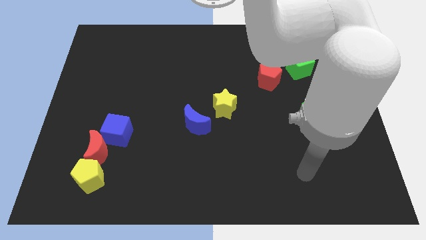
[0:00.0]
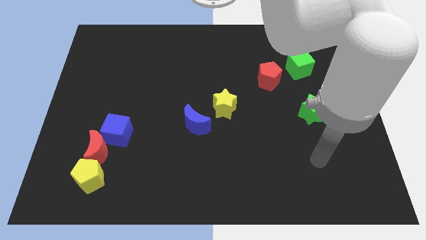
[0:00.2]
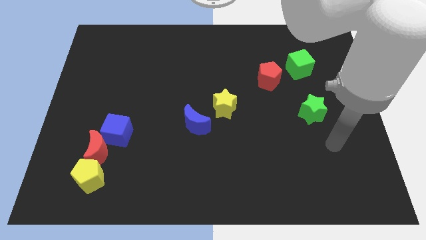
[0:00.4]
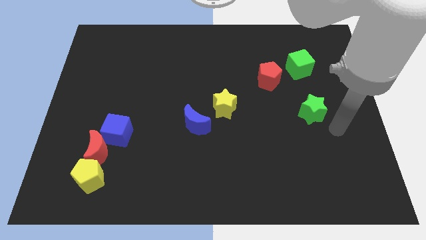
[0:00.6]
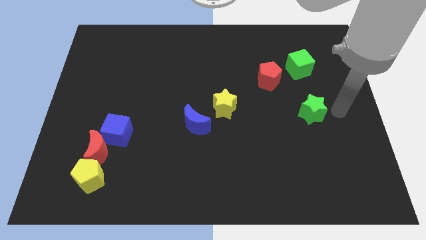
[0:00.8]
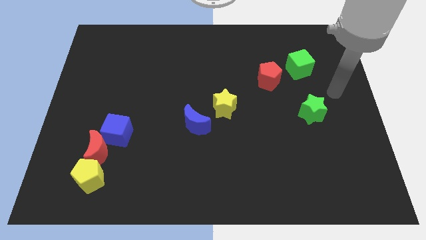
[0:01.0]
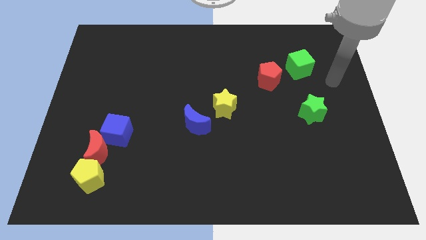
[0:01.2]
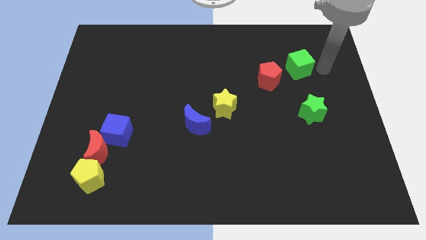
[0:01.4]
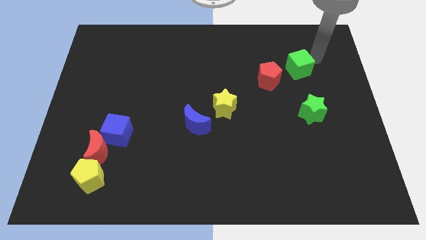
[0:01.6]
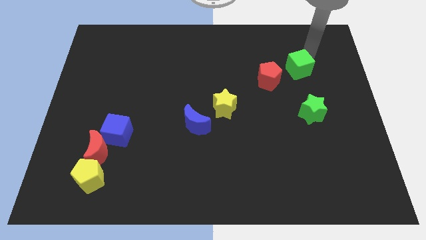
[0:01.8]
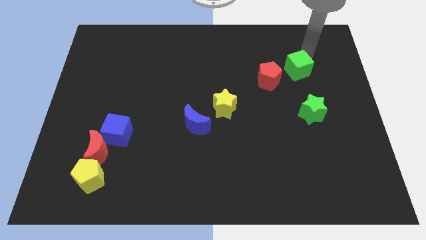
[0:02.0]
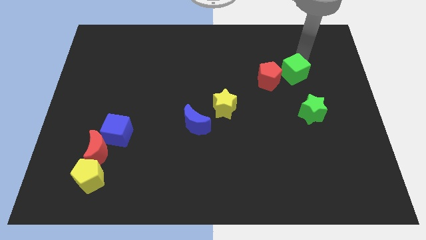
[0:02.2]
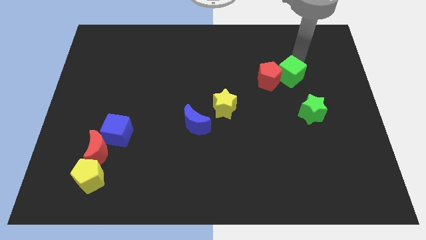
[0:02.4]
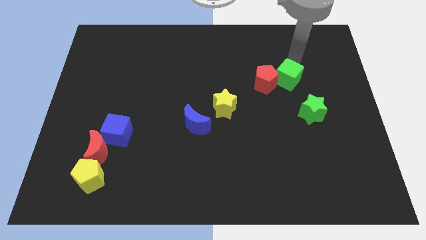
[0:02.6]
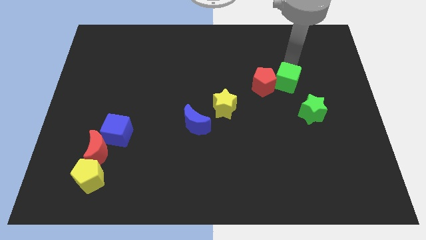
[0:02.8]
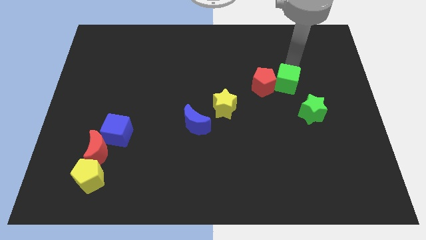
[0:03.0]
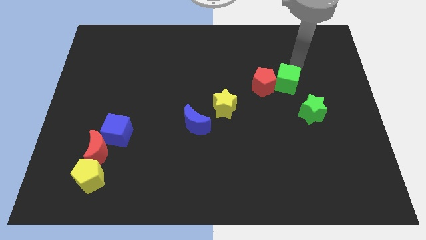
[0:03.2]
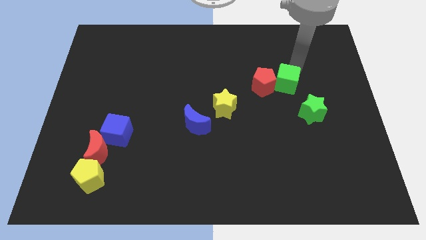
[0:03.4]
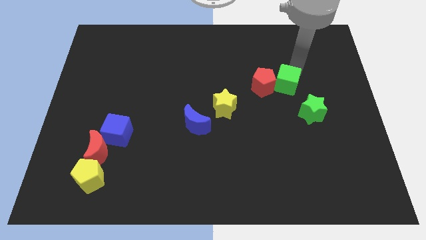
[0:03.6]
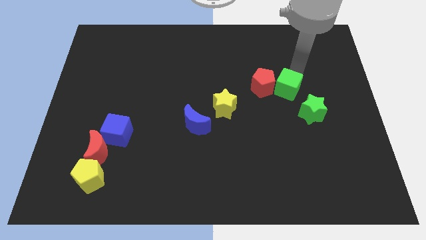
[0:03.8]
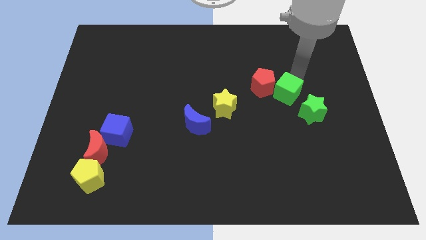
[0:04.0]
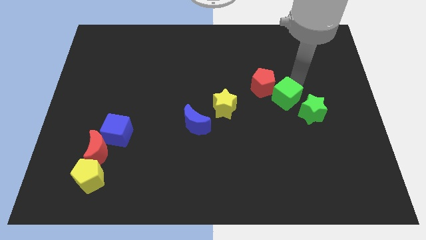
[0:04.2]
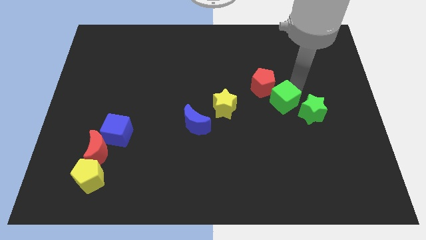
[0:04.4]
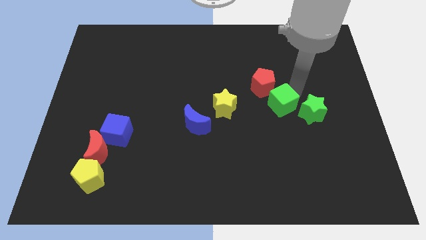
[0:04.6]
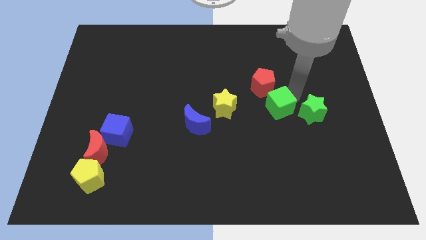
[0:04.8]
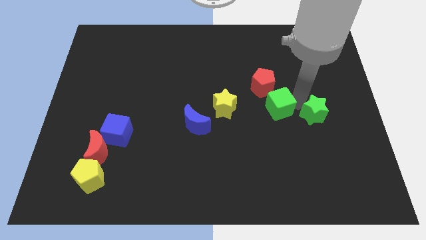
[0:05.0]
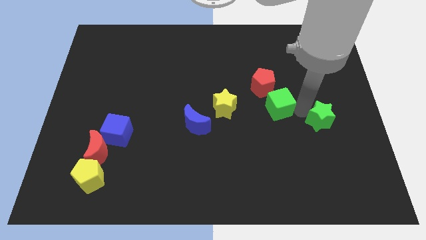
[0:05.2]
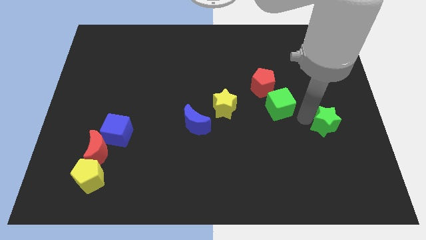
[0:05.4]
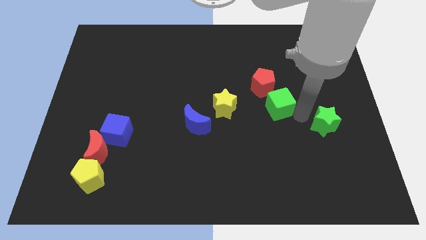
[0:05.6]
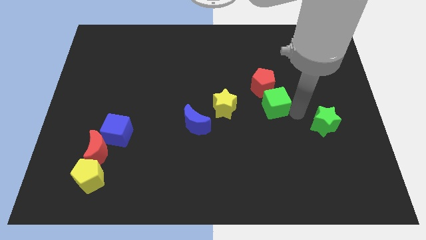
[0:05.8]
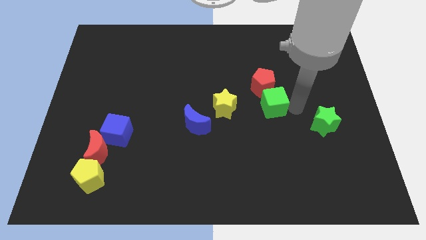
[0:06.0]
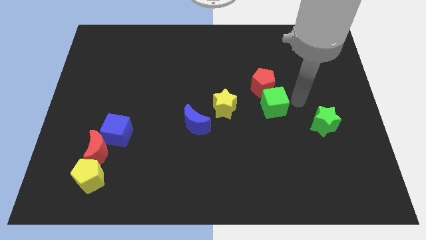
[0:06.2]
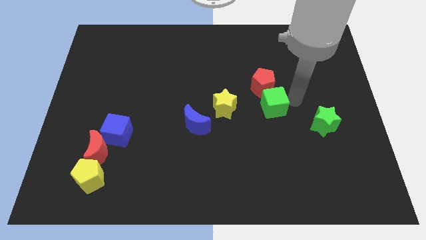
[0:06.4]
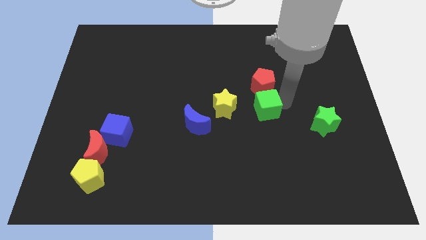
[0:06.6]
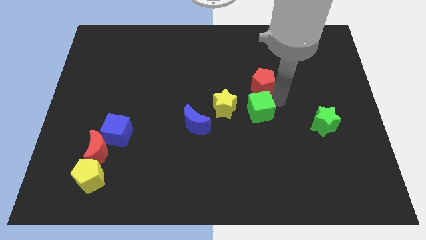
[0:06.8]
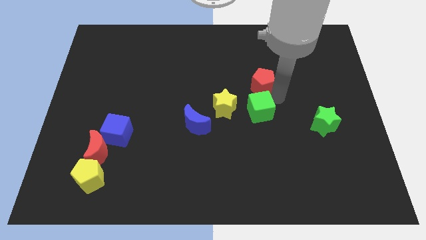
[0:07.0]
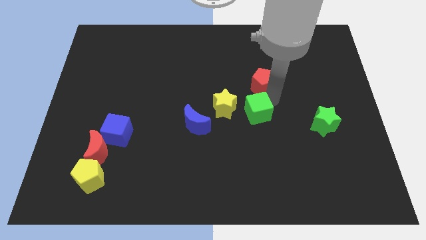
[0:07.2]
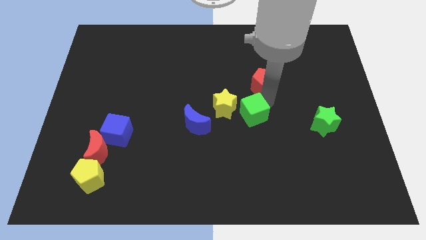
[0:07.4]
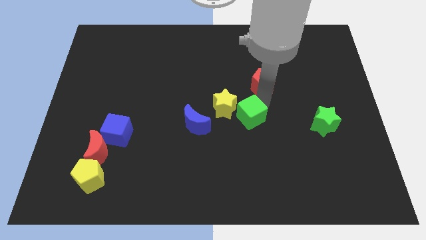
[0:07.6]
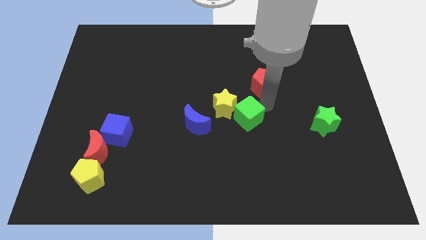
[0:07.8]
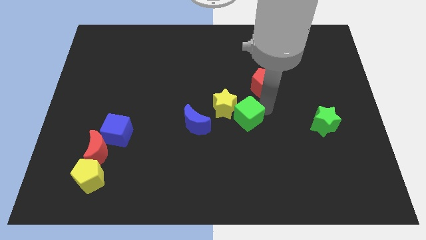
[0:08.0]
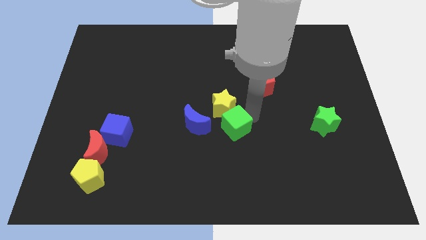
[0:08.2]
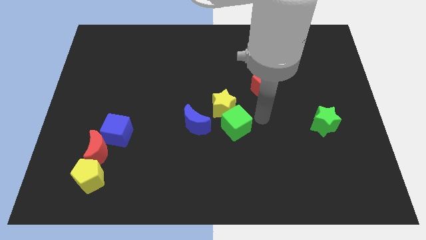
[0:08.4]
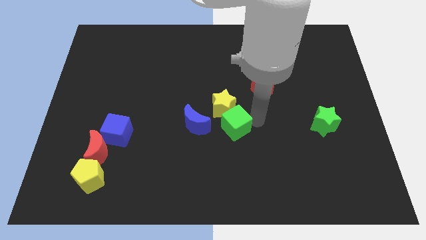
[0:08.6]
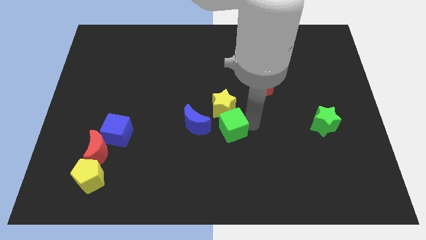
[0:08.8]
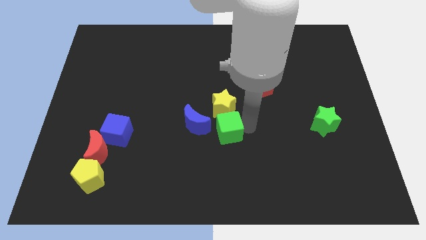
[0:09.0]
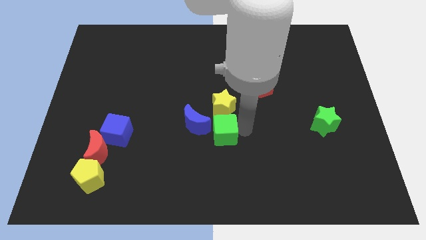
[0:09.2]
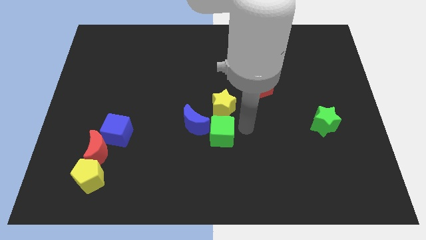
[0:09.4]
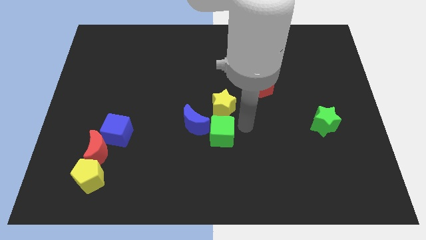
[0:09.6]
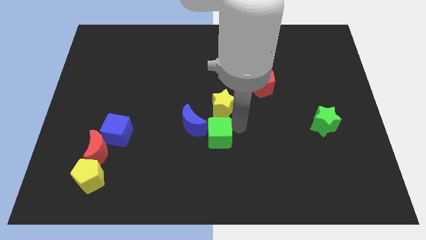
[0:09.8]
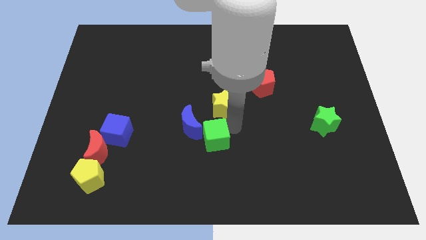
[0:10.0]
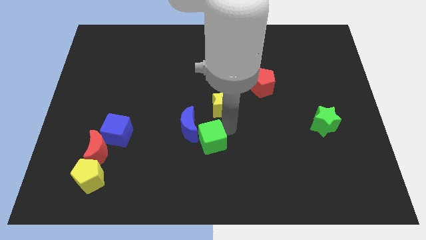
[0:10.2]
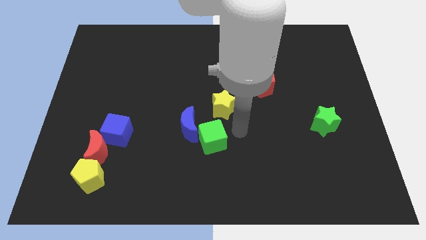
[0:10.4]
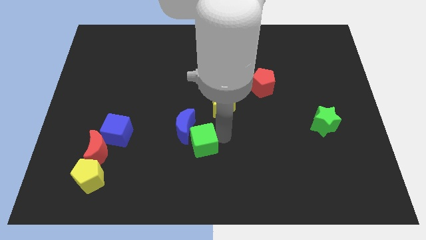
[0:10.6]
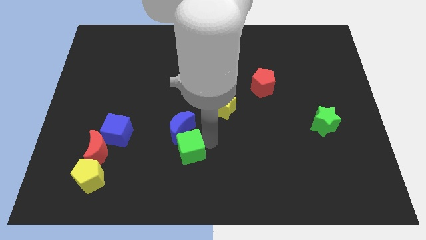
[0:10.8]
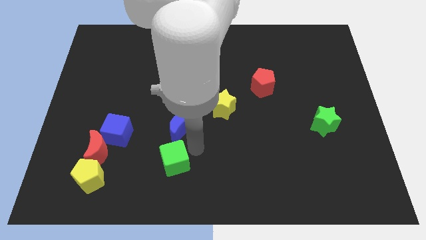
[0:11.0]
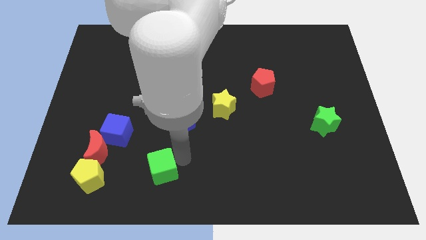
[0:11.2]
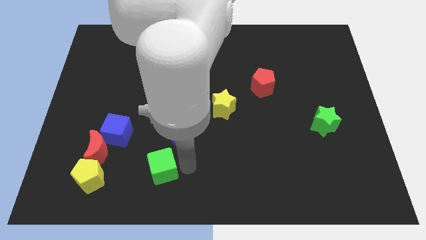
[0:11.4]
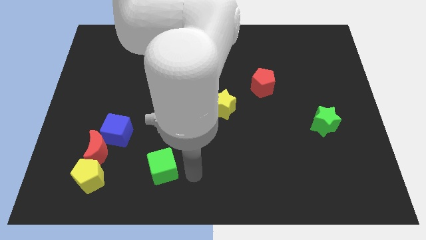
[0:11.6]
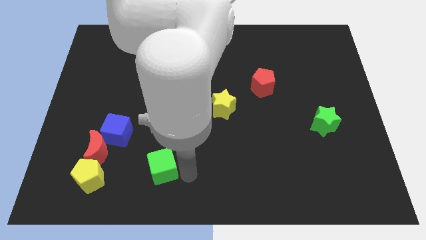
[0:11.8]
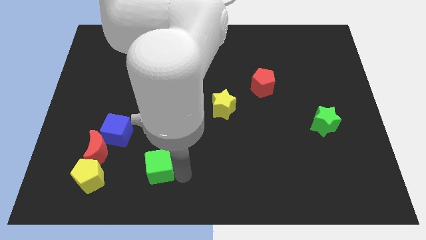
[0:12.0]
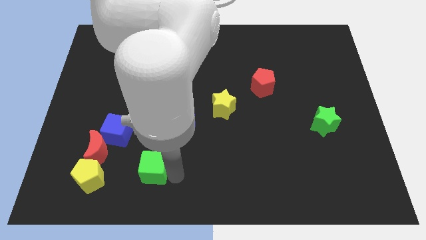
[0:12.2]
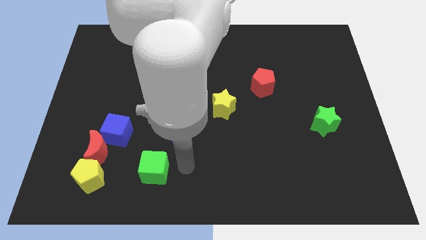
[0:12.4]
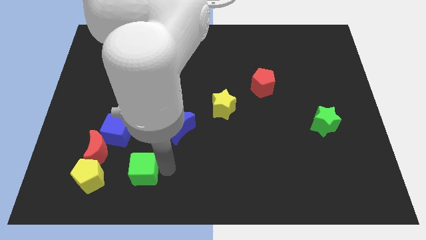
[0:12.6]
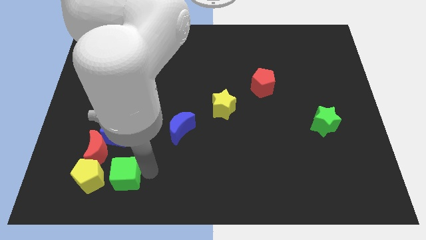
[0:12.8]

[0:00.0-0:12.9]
move the green cube to the bottom of the blue cube
